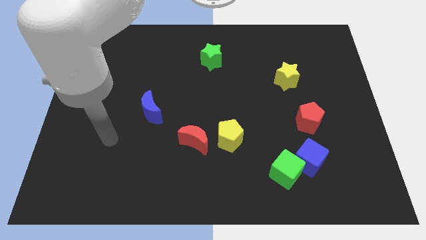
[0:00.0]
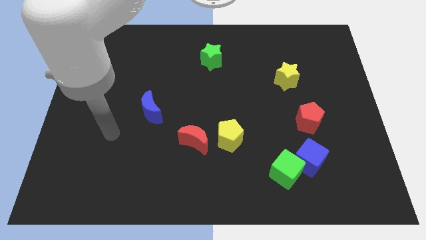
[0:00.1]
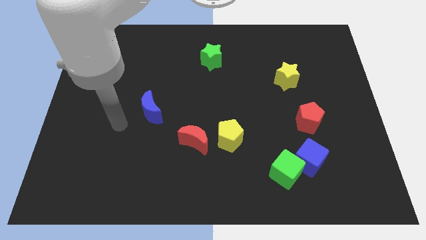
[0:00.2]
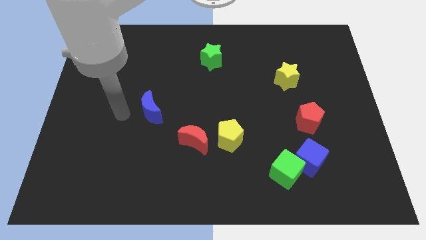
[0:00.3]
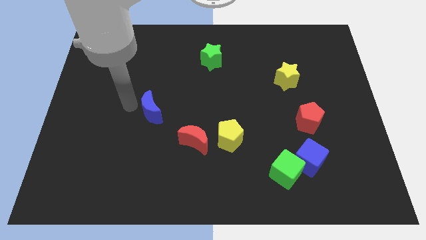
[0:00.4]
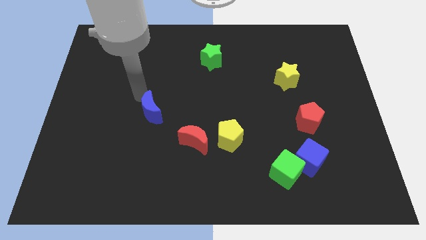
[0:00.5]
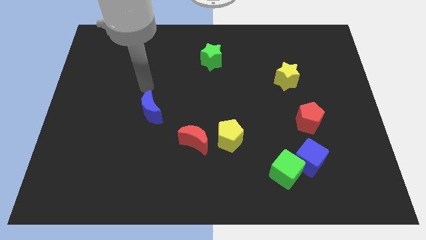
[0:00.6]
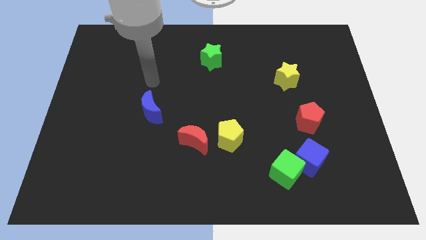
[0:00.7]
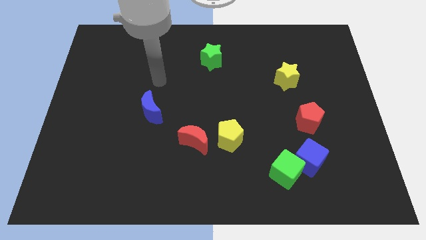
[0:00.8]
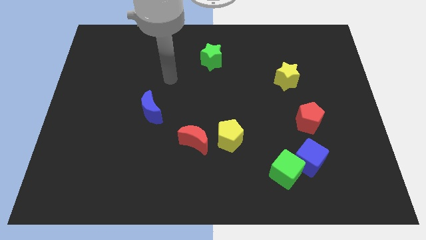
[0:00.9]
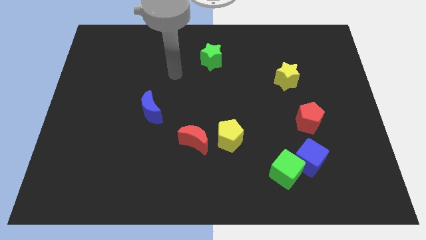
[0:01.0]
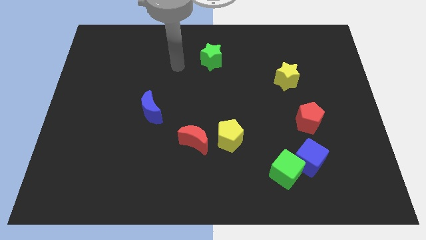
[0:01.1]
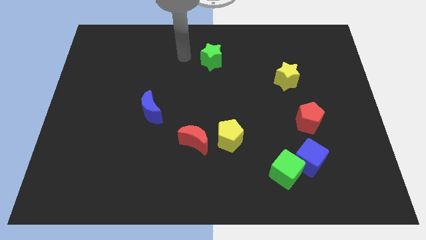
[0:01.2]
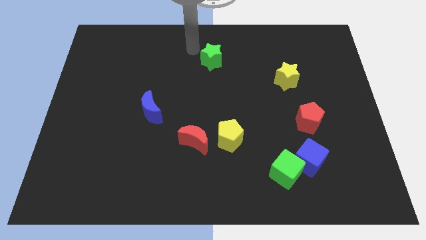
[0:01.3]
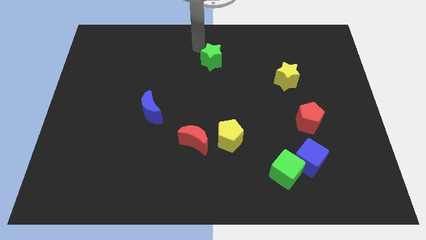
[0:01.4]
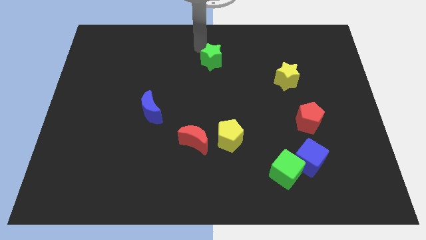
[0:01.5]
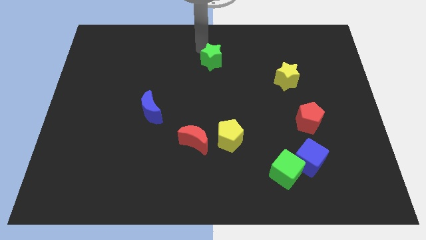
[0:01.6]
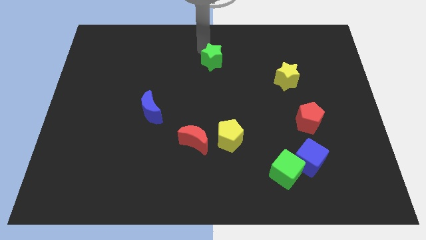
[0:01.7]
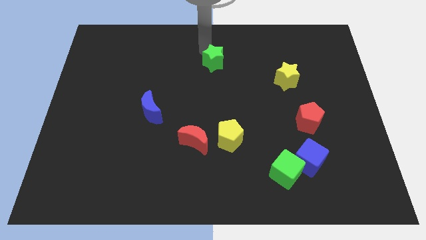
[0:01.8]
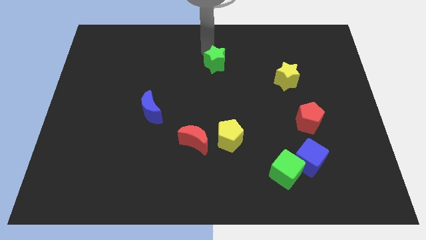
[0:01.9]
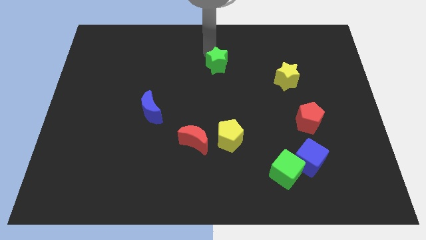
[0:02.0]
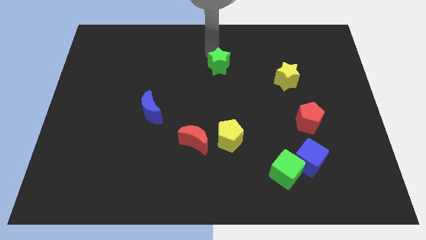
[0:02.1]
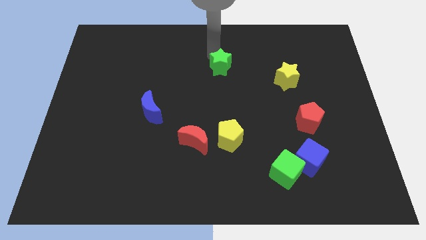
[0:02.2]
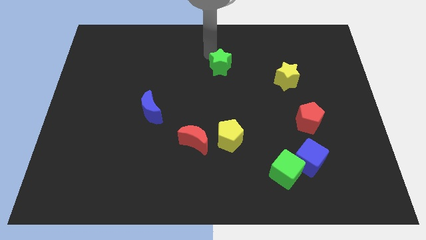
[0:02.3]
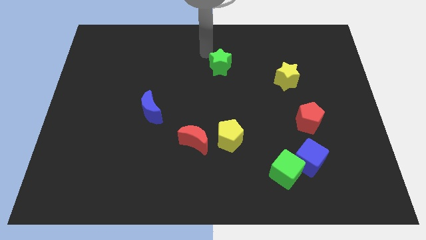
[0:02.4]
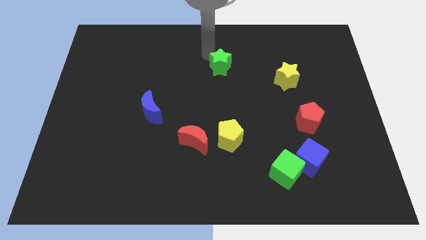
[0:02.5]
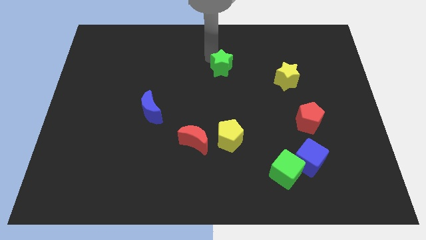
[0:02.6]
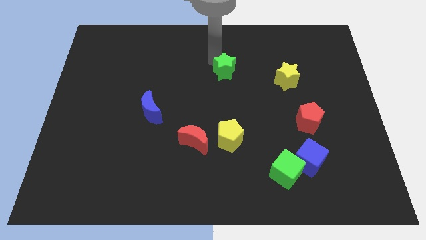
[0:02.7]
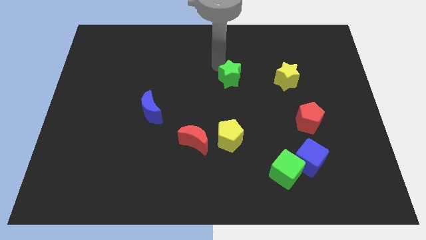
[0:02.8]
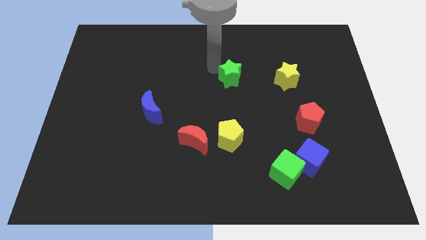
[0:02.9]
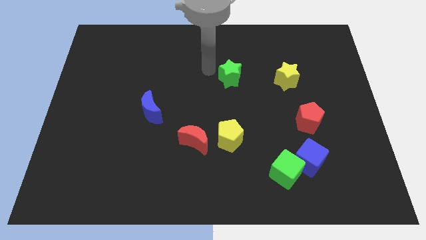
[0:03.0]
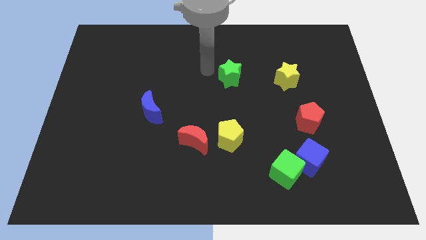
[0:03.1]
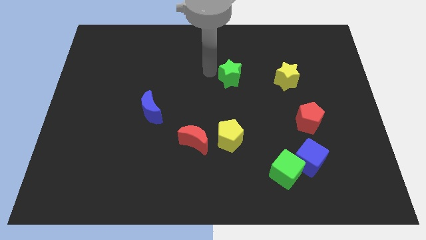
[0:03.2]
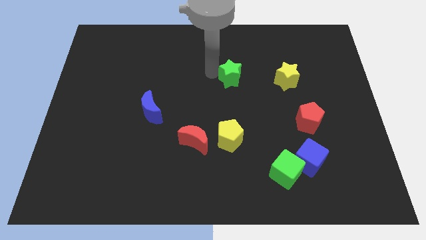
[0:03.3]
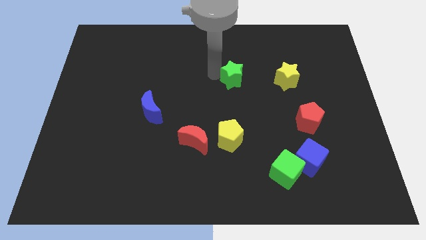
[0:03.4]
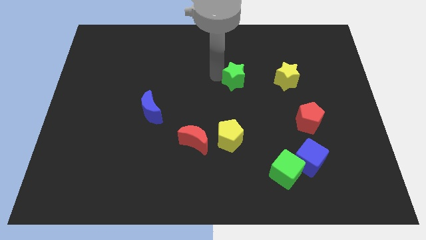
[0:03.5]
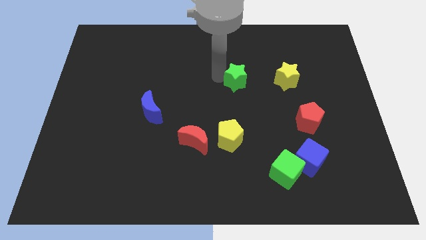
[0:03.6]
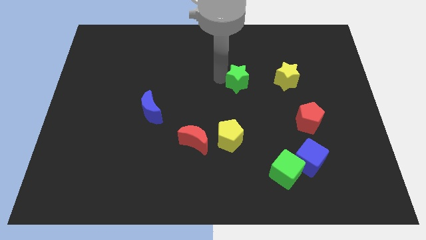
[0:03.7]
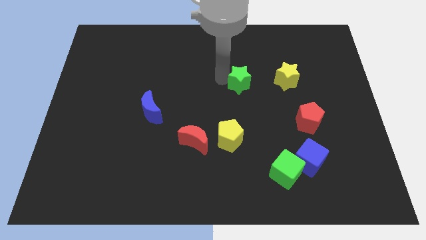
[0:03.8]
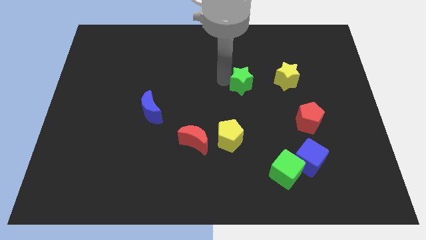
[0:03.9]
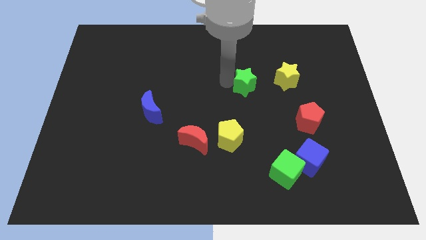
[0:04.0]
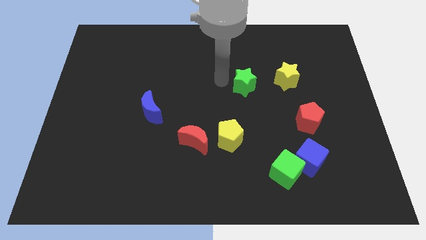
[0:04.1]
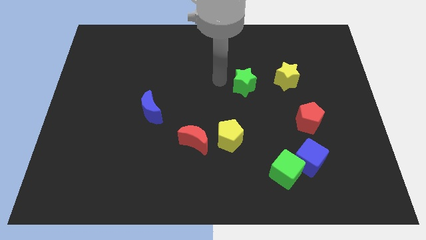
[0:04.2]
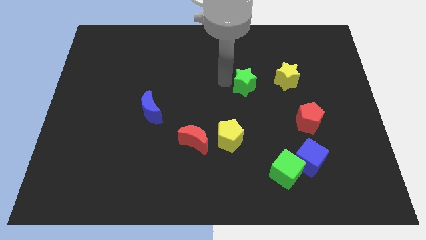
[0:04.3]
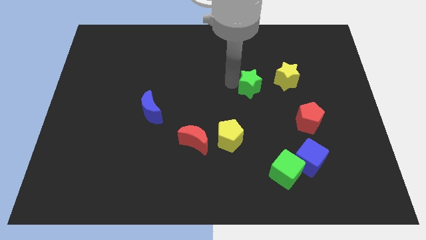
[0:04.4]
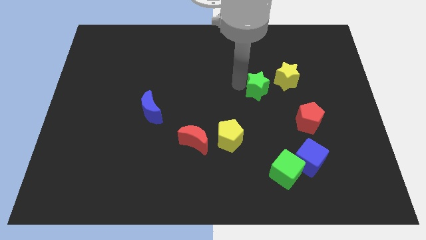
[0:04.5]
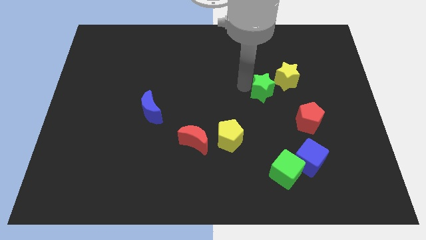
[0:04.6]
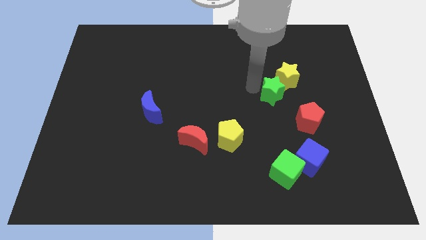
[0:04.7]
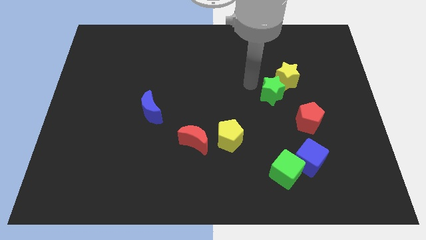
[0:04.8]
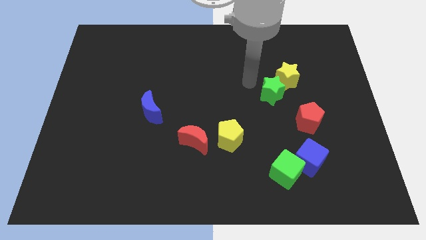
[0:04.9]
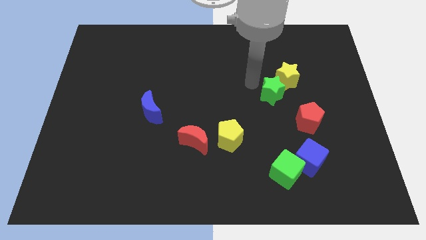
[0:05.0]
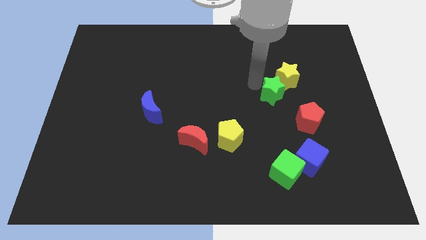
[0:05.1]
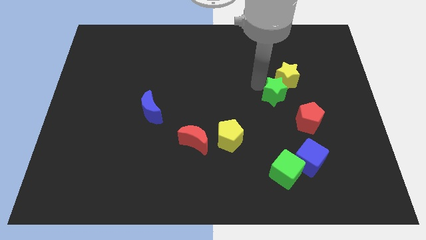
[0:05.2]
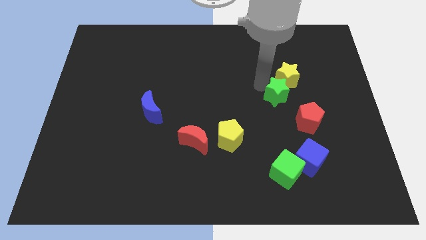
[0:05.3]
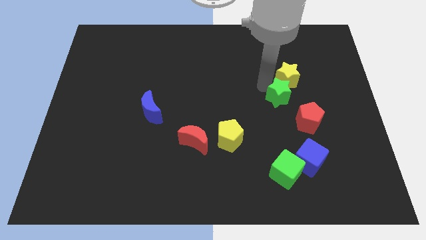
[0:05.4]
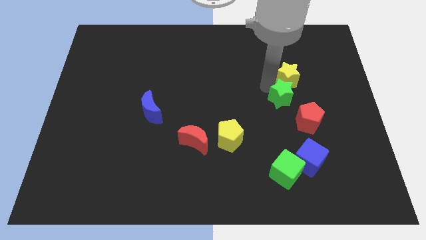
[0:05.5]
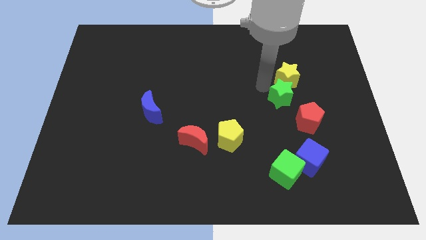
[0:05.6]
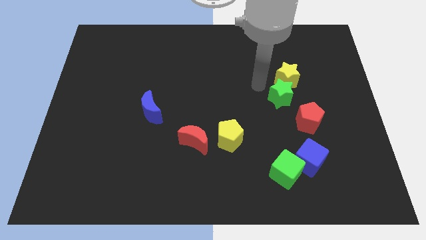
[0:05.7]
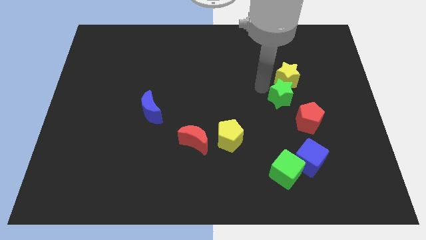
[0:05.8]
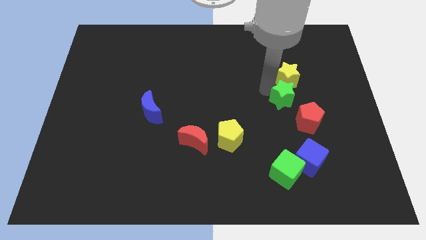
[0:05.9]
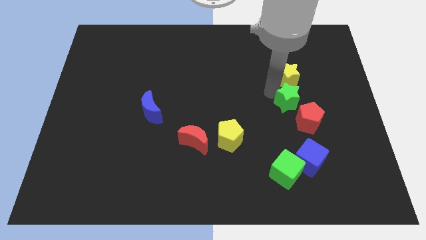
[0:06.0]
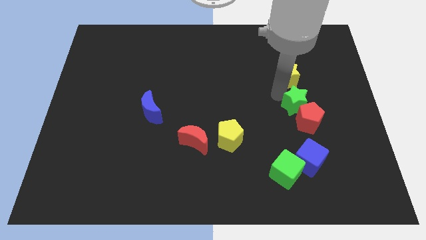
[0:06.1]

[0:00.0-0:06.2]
slide the green star above the blue cube

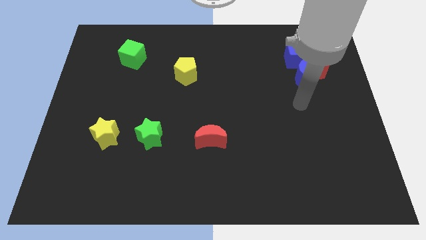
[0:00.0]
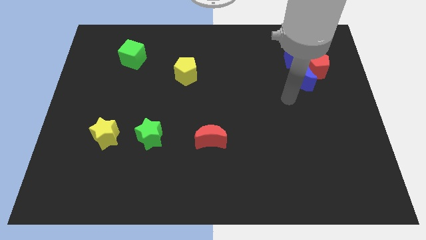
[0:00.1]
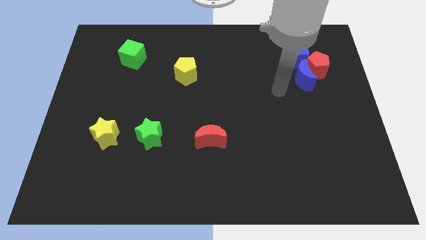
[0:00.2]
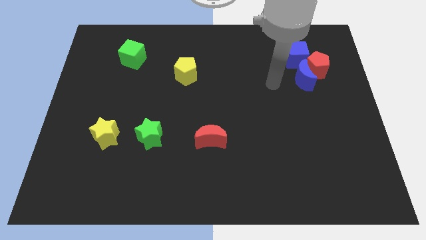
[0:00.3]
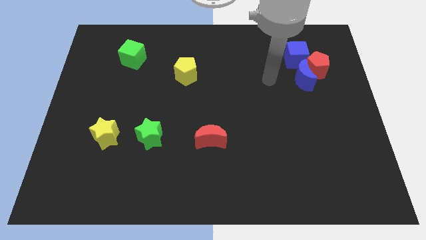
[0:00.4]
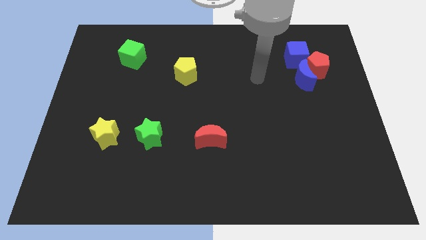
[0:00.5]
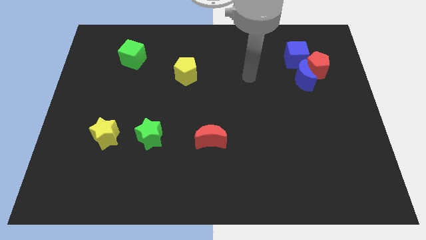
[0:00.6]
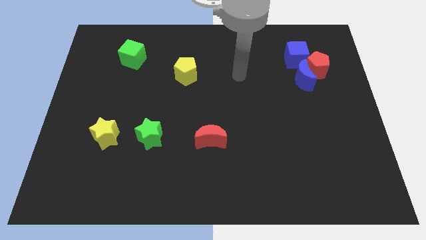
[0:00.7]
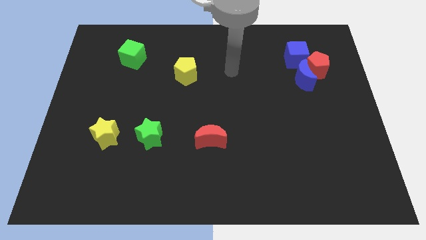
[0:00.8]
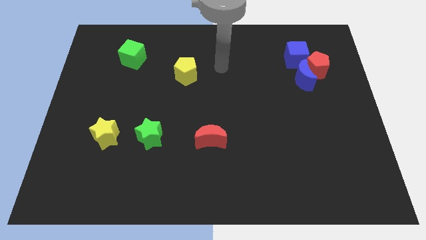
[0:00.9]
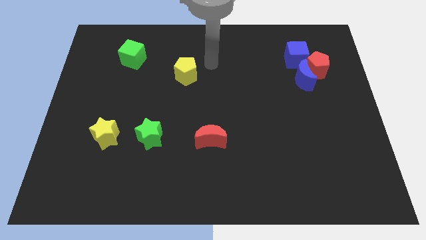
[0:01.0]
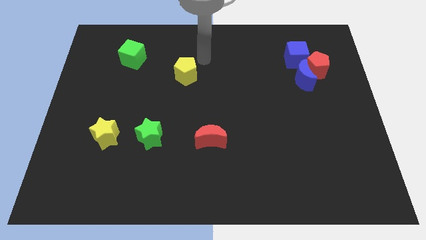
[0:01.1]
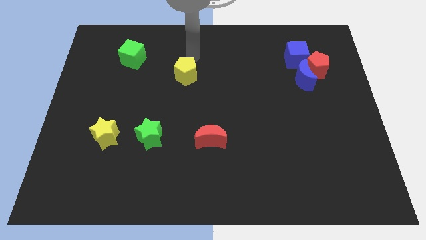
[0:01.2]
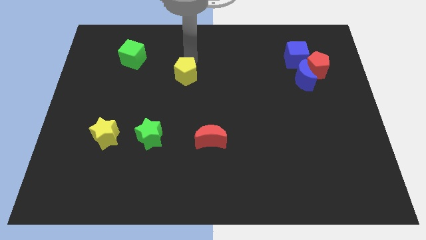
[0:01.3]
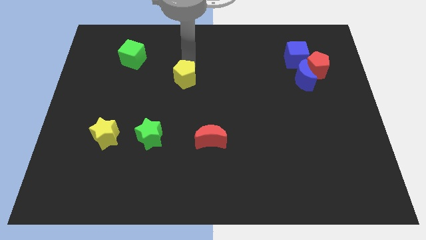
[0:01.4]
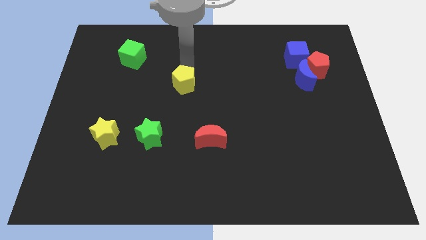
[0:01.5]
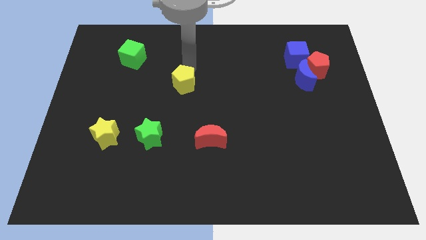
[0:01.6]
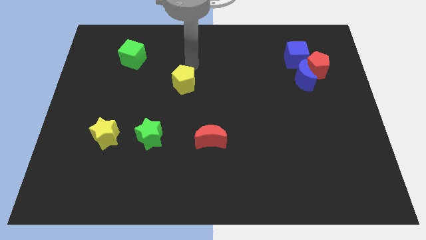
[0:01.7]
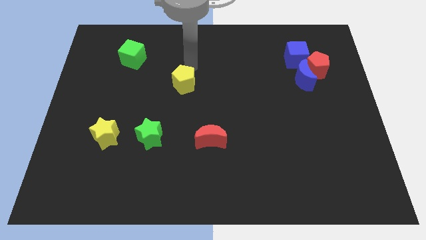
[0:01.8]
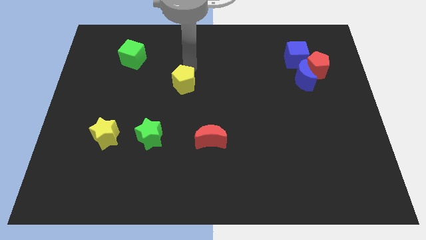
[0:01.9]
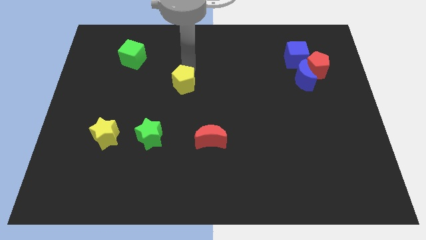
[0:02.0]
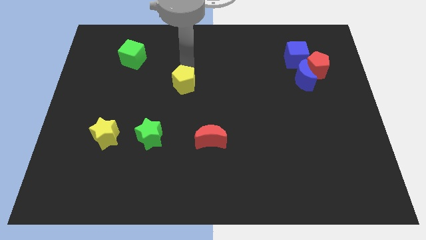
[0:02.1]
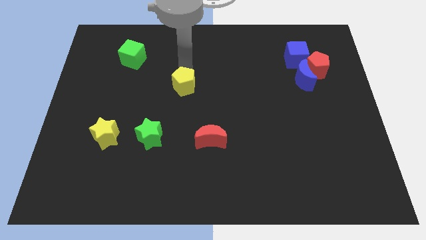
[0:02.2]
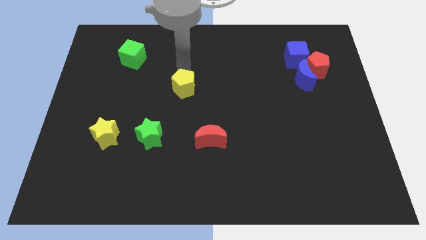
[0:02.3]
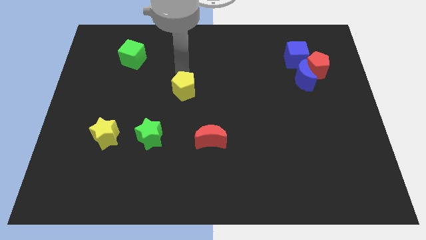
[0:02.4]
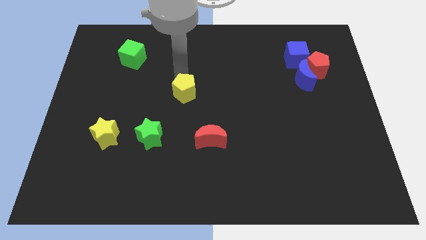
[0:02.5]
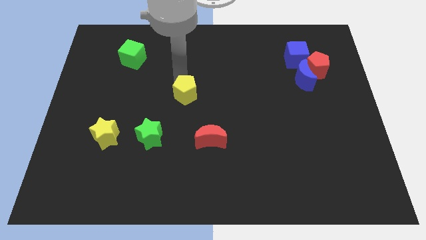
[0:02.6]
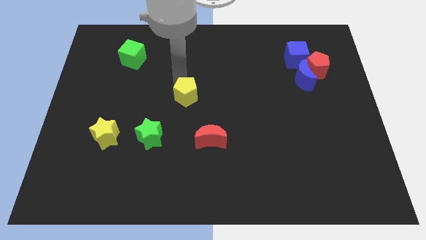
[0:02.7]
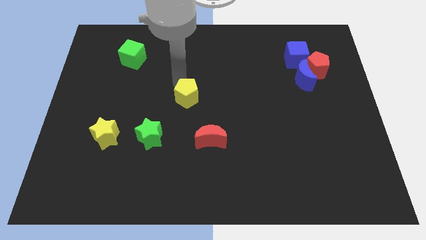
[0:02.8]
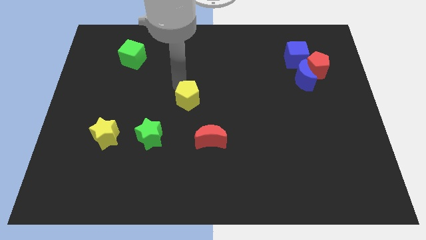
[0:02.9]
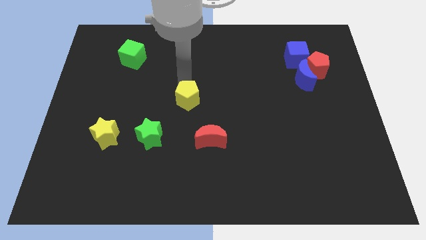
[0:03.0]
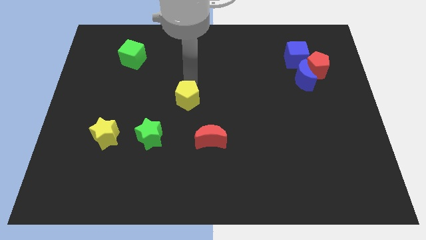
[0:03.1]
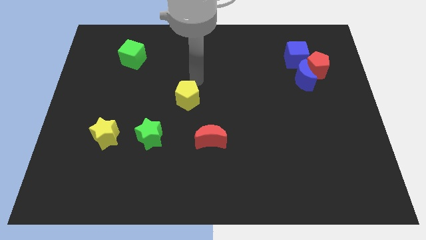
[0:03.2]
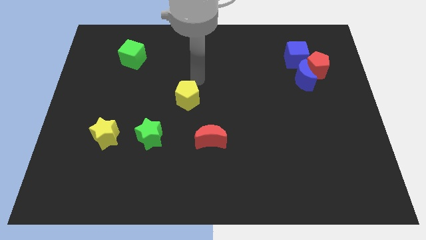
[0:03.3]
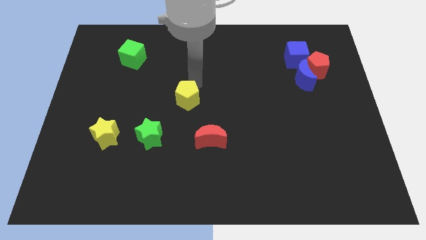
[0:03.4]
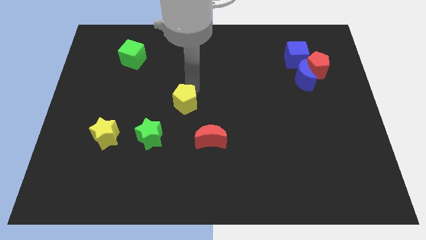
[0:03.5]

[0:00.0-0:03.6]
move the yellow pentagon to the top right side of the green star
